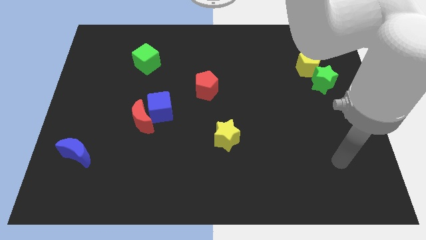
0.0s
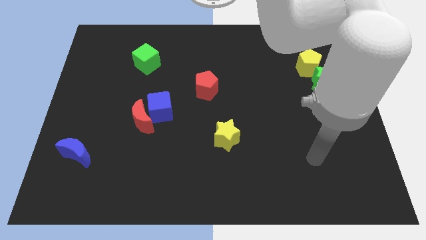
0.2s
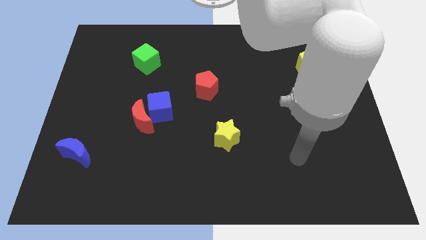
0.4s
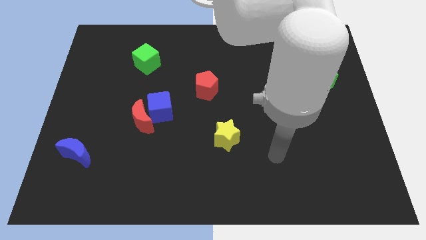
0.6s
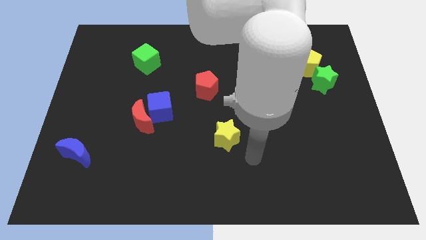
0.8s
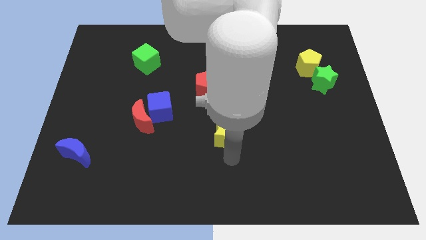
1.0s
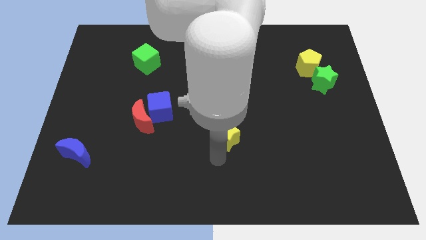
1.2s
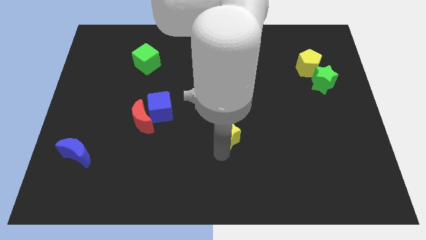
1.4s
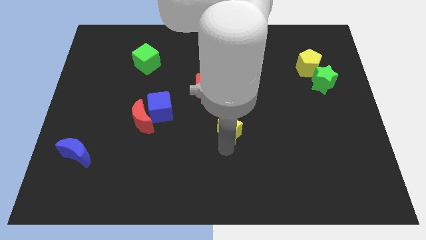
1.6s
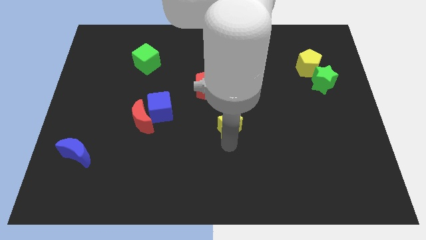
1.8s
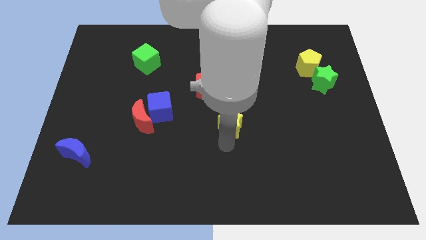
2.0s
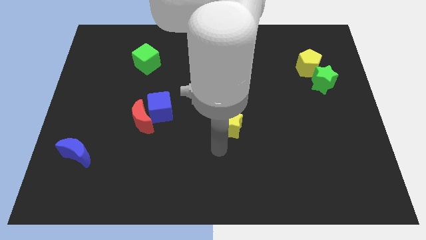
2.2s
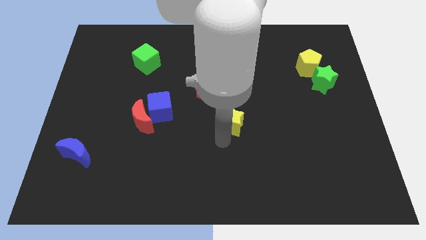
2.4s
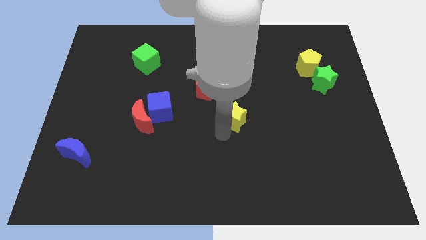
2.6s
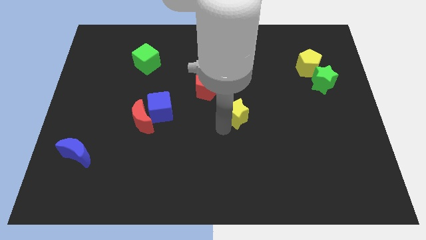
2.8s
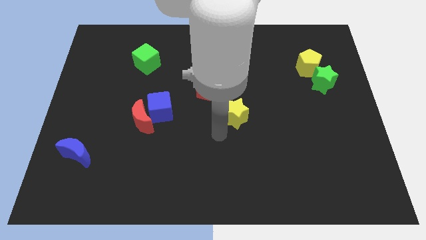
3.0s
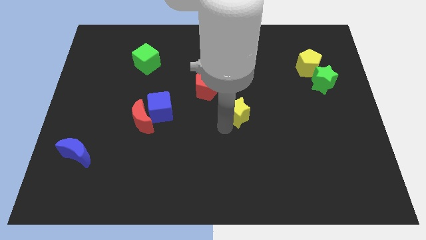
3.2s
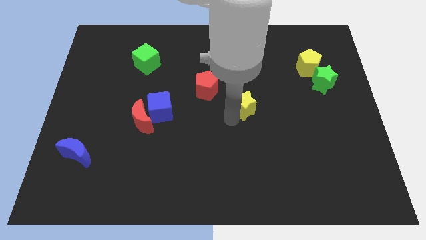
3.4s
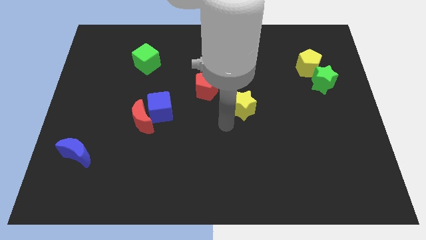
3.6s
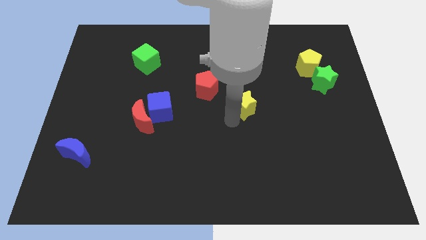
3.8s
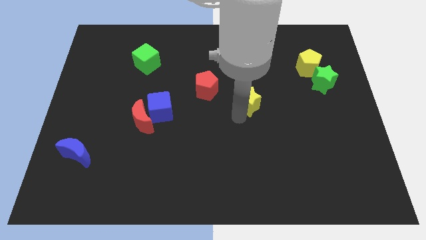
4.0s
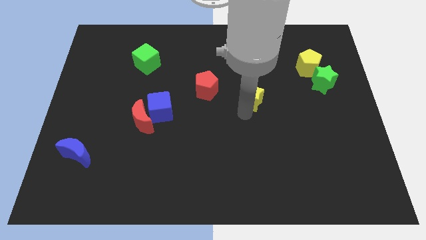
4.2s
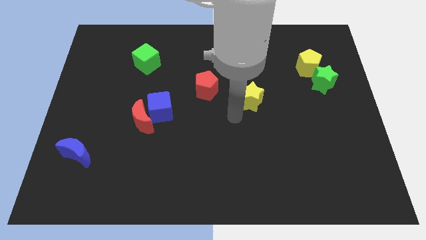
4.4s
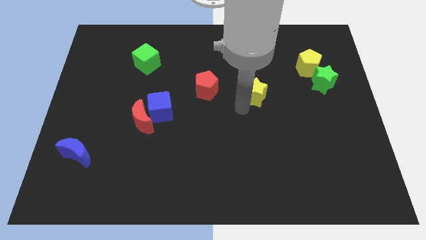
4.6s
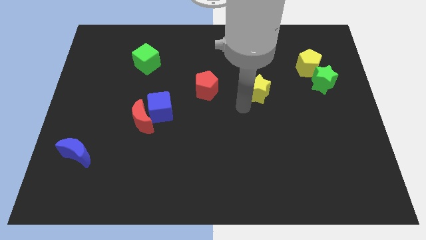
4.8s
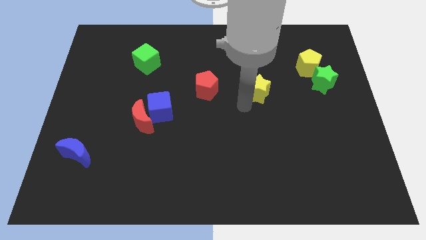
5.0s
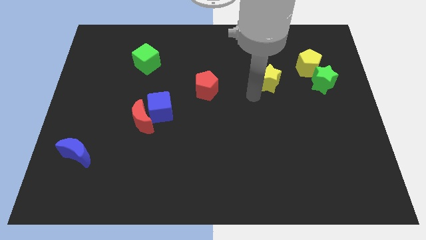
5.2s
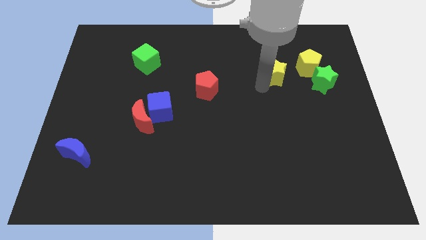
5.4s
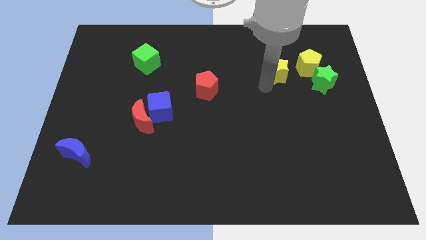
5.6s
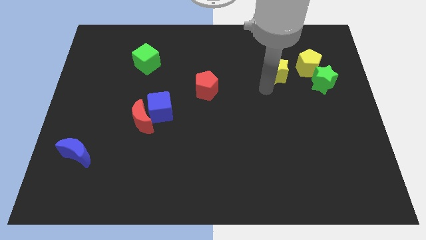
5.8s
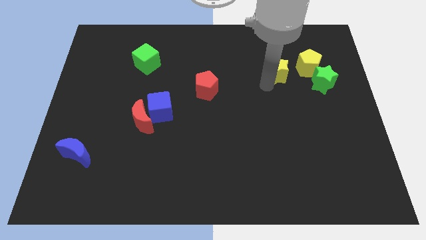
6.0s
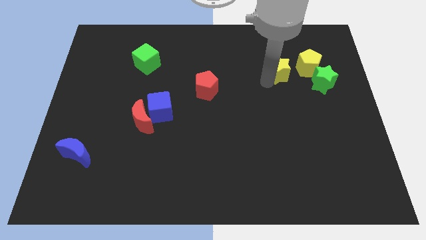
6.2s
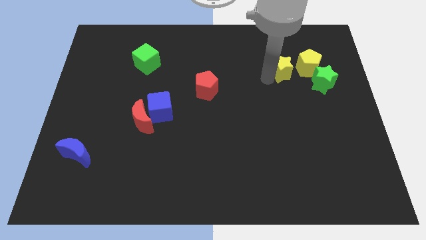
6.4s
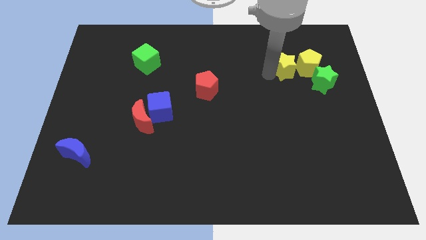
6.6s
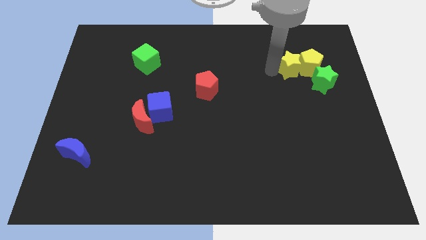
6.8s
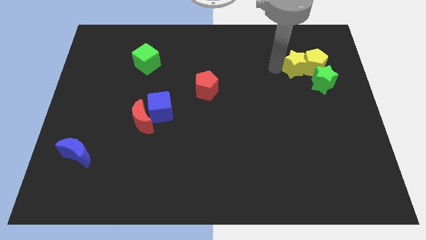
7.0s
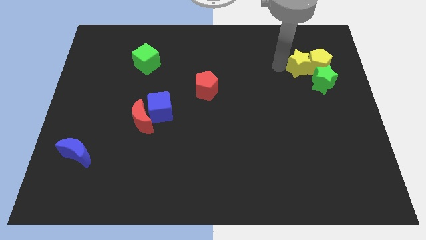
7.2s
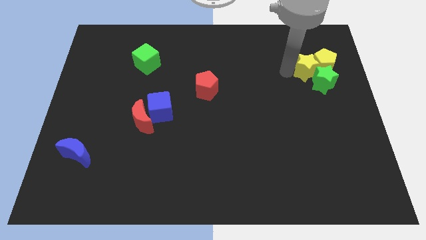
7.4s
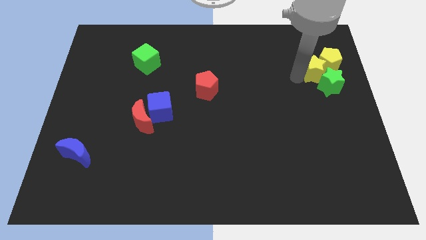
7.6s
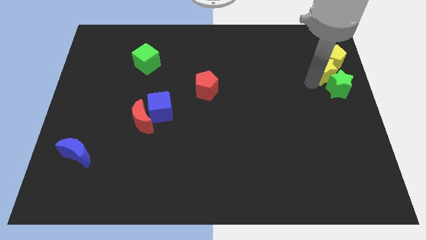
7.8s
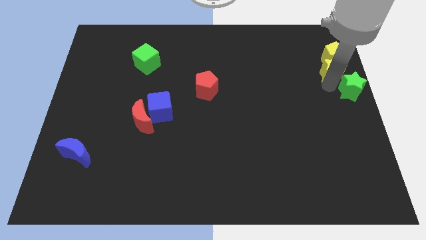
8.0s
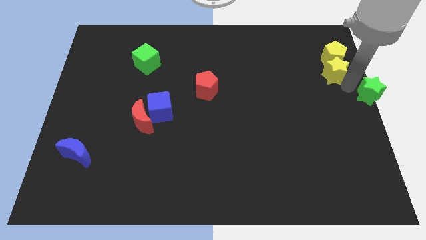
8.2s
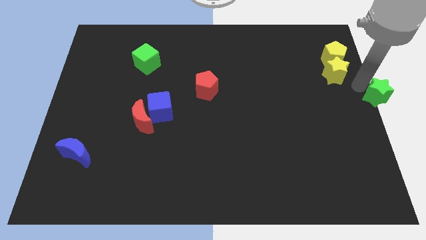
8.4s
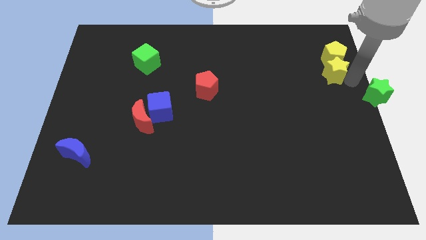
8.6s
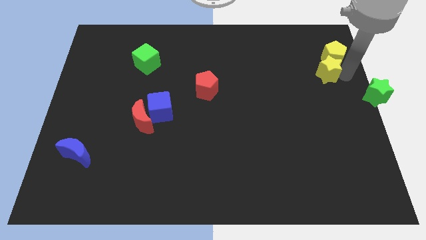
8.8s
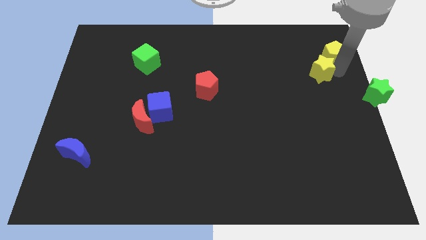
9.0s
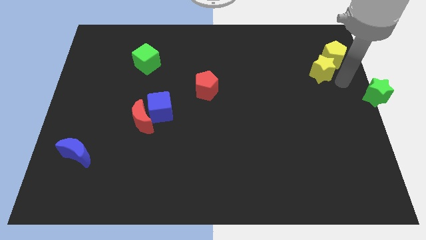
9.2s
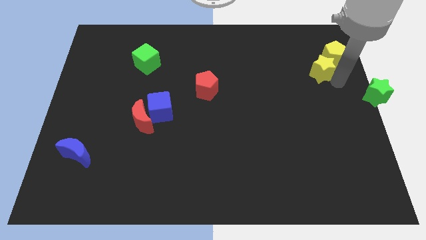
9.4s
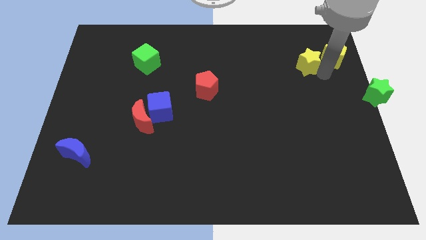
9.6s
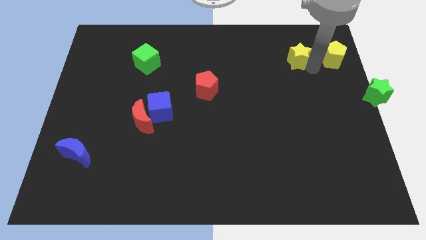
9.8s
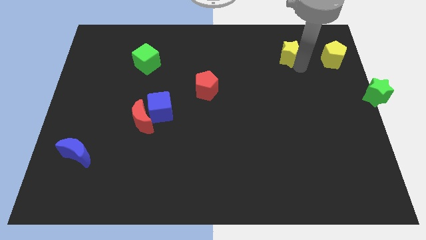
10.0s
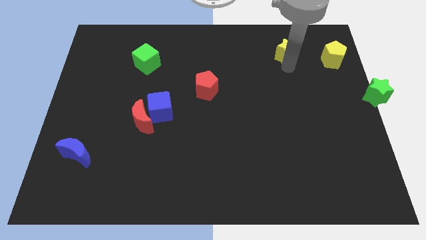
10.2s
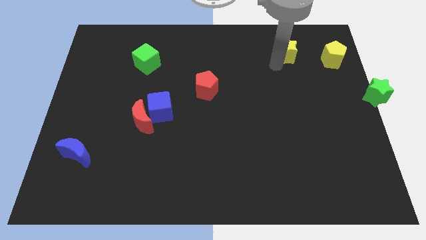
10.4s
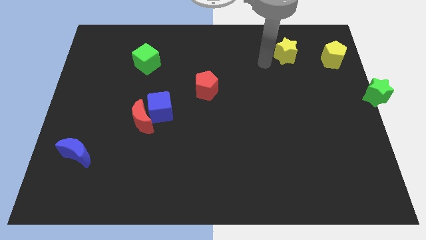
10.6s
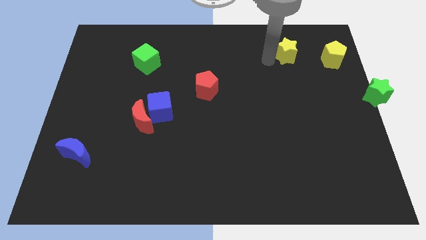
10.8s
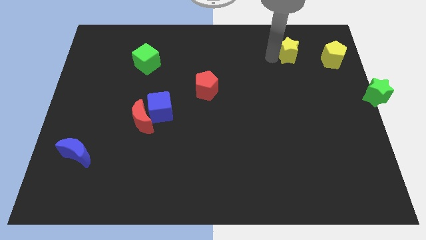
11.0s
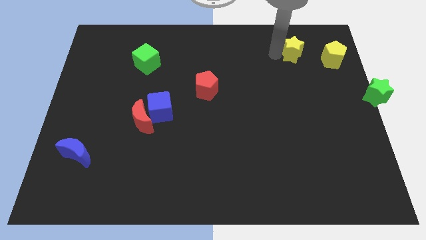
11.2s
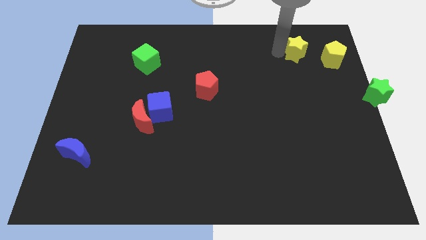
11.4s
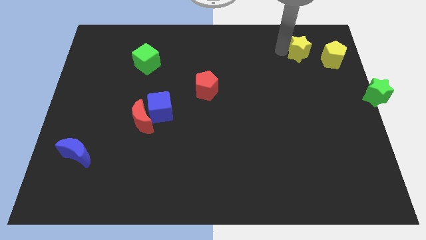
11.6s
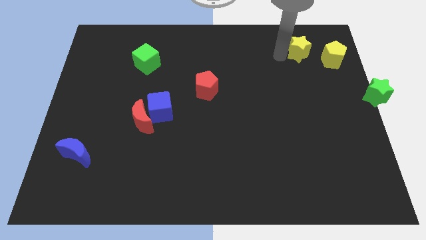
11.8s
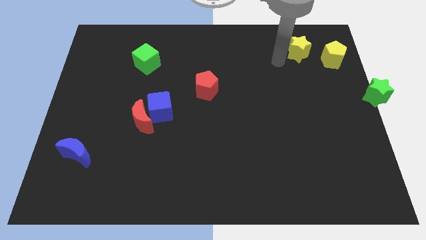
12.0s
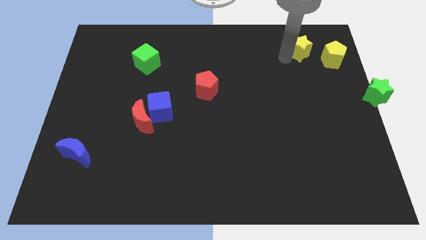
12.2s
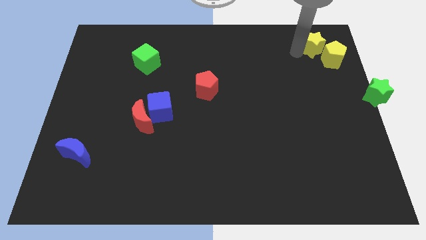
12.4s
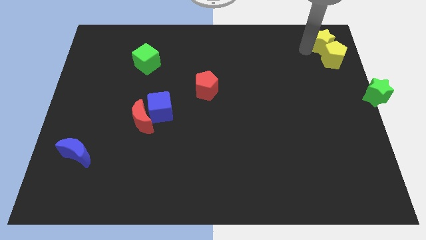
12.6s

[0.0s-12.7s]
move the yellow star to the top right of the board
